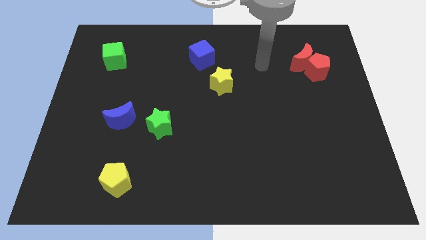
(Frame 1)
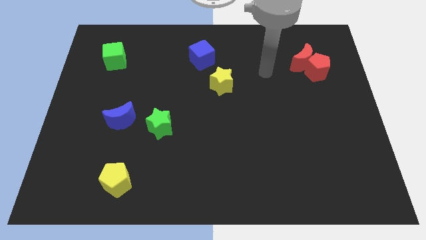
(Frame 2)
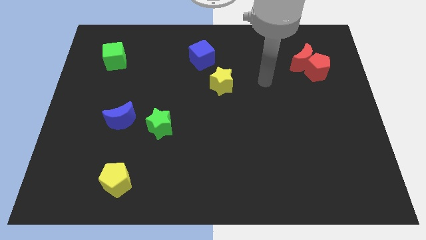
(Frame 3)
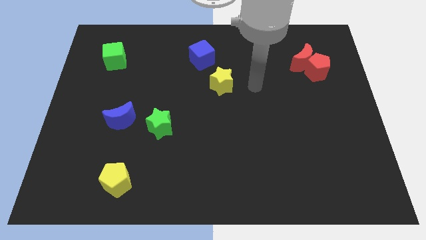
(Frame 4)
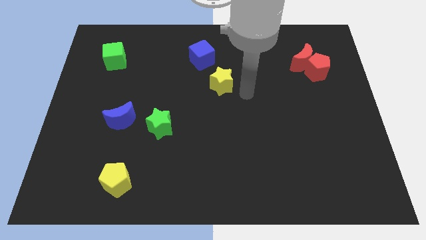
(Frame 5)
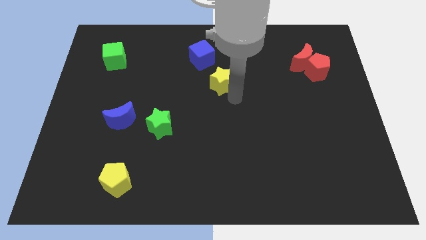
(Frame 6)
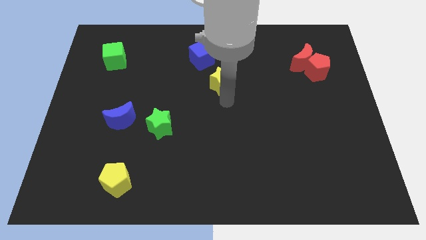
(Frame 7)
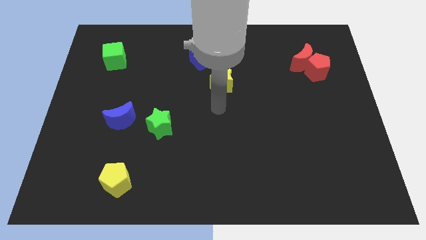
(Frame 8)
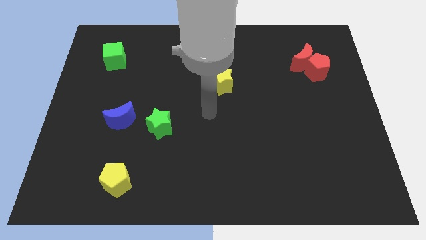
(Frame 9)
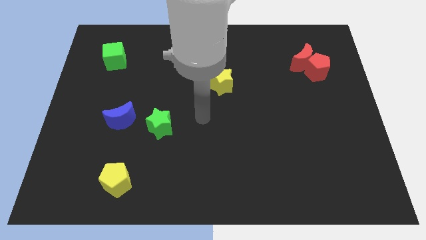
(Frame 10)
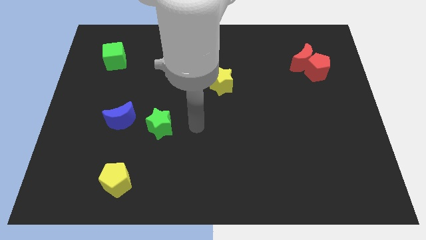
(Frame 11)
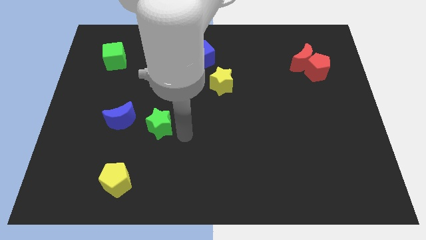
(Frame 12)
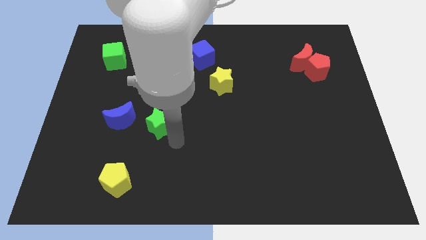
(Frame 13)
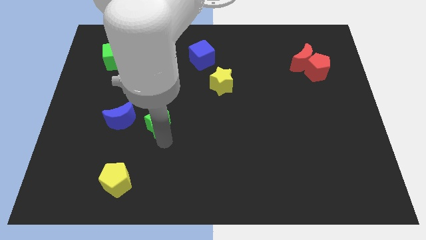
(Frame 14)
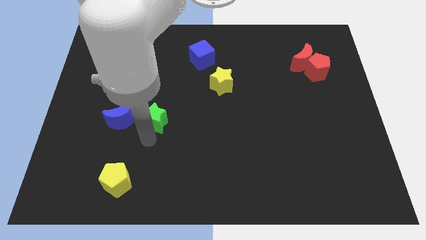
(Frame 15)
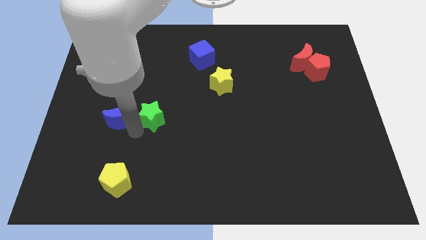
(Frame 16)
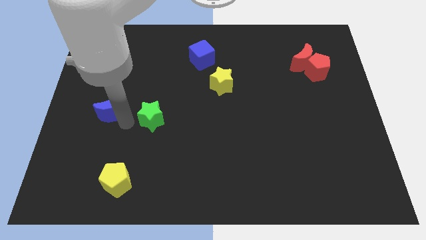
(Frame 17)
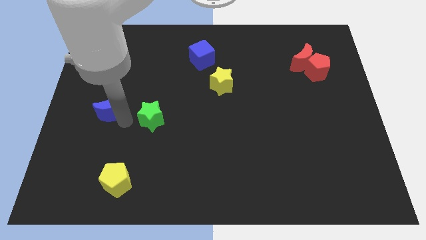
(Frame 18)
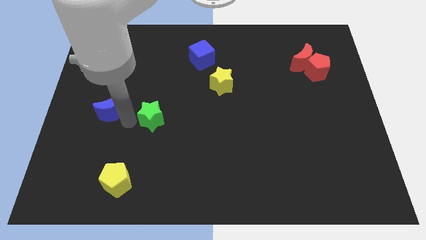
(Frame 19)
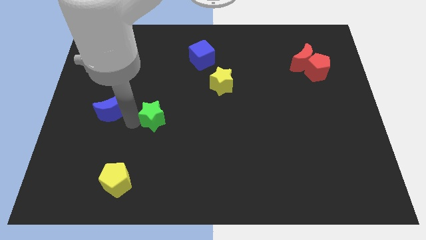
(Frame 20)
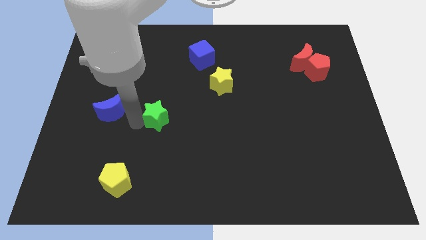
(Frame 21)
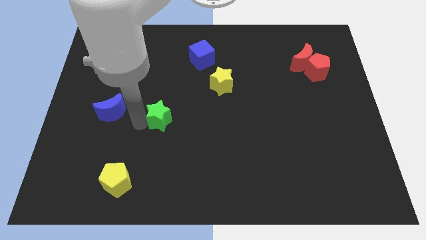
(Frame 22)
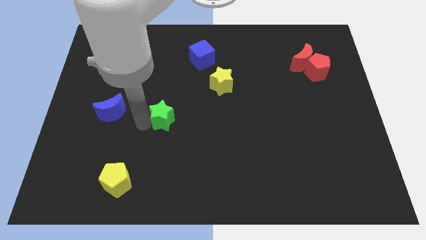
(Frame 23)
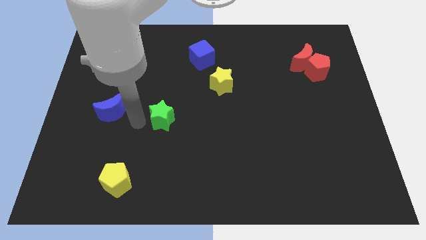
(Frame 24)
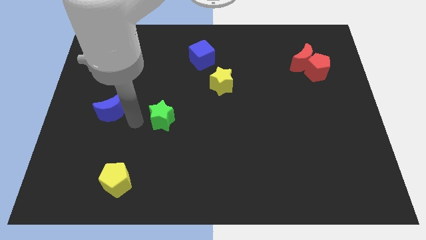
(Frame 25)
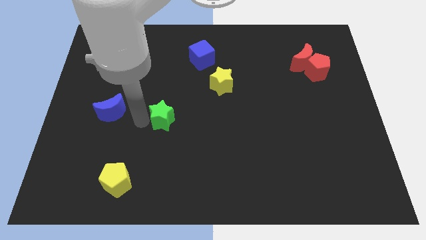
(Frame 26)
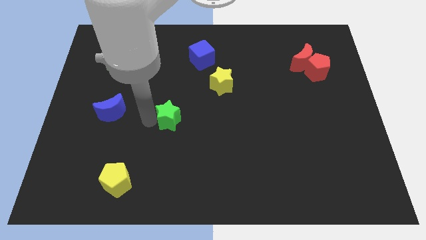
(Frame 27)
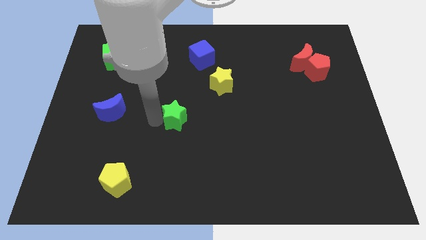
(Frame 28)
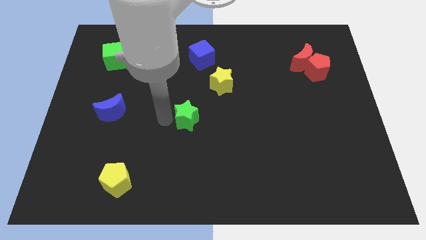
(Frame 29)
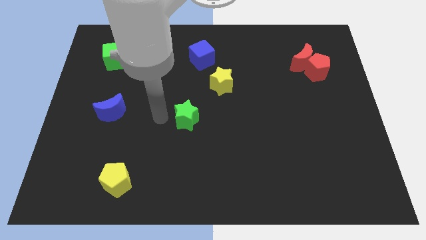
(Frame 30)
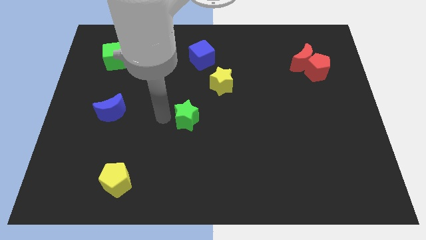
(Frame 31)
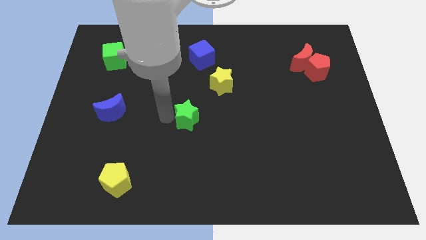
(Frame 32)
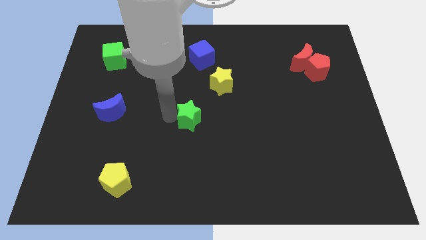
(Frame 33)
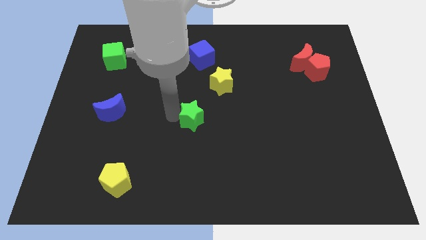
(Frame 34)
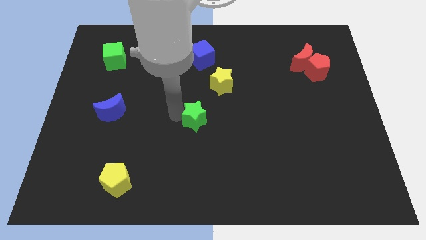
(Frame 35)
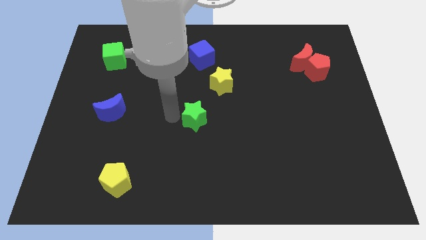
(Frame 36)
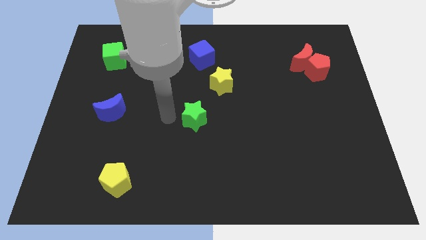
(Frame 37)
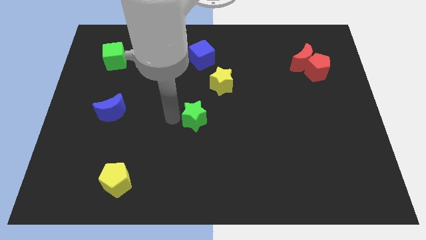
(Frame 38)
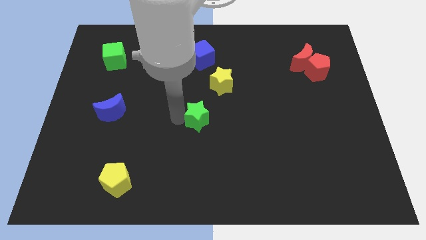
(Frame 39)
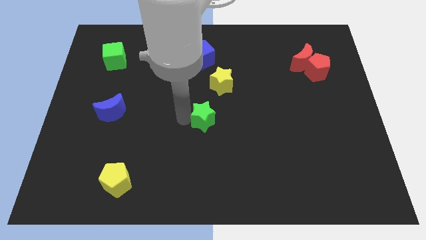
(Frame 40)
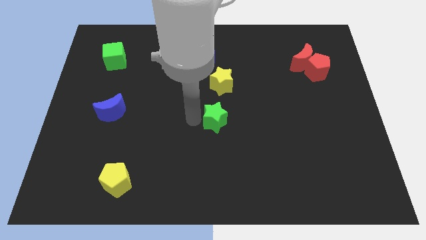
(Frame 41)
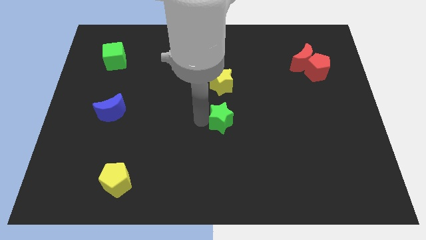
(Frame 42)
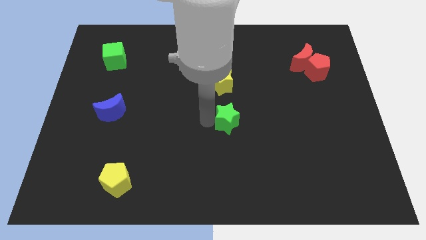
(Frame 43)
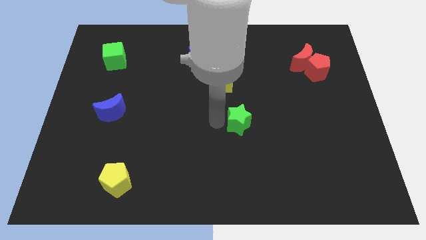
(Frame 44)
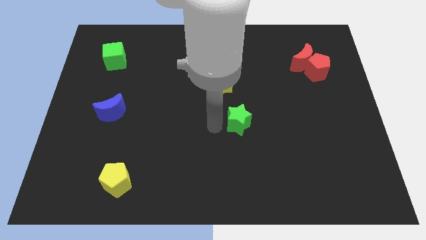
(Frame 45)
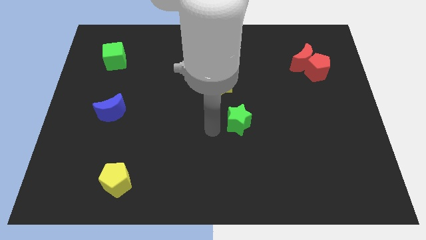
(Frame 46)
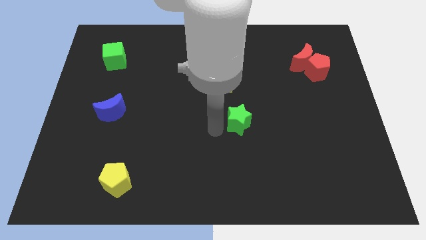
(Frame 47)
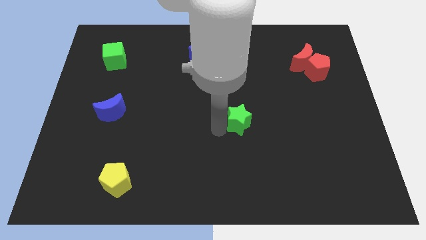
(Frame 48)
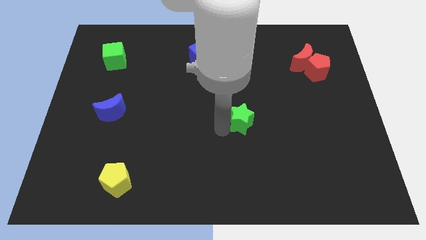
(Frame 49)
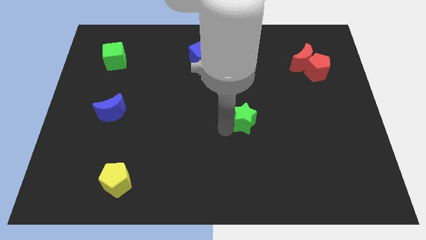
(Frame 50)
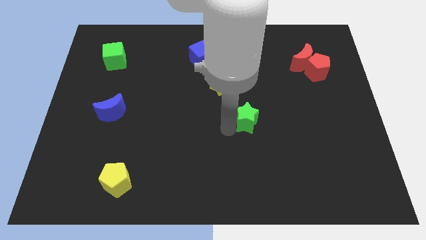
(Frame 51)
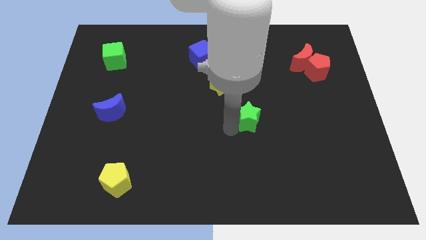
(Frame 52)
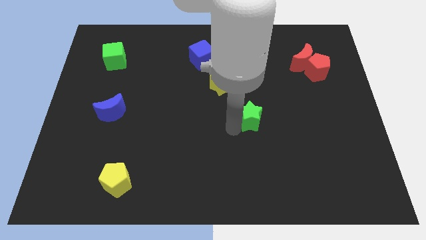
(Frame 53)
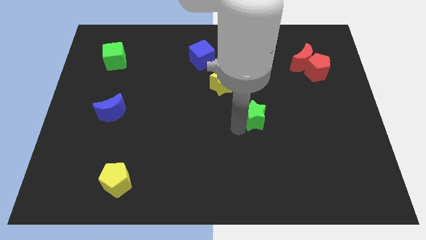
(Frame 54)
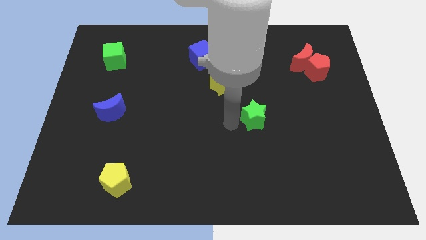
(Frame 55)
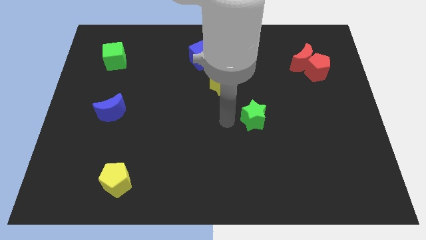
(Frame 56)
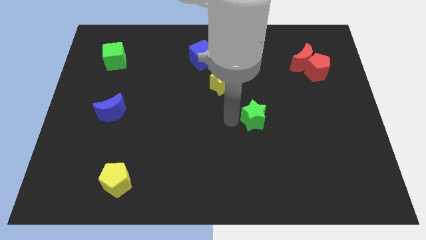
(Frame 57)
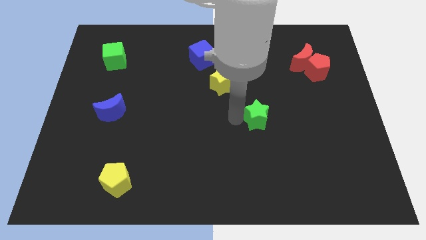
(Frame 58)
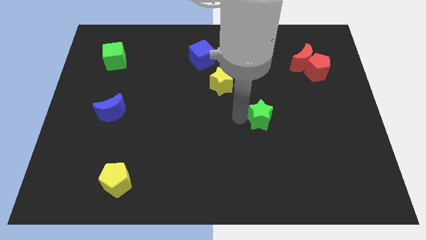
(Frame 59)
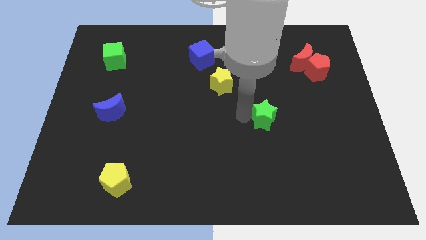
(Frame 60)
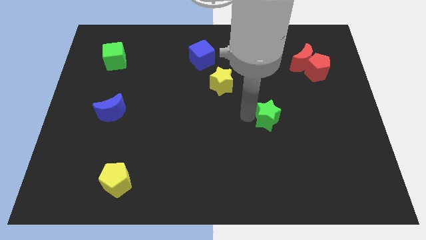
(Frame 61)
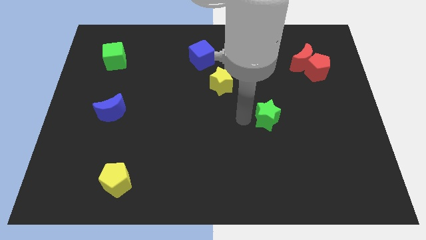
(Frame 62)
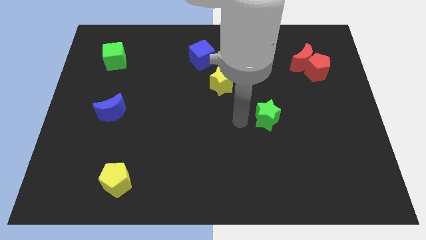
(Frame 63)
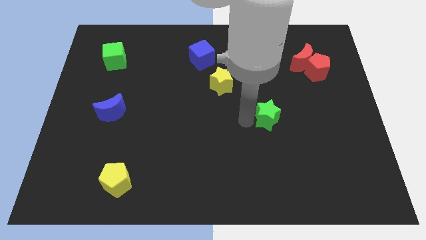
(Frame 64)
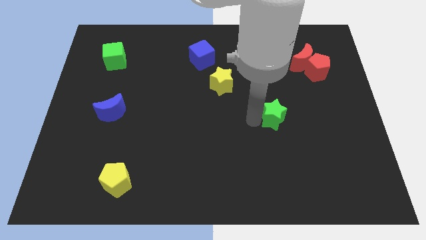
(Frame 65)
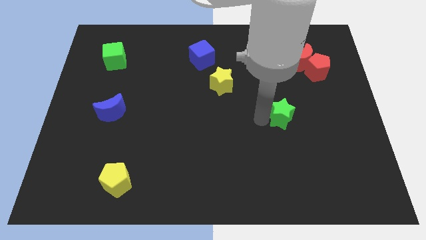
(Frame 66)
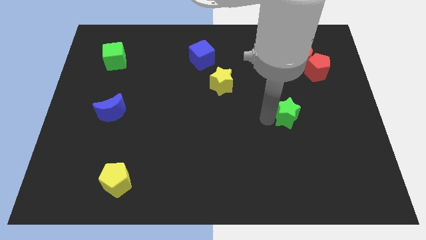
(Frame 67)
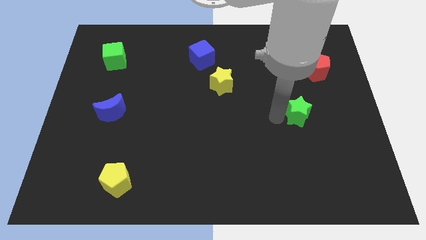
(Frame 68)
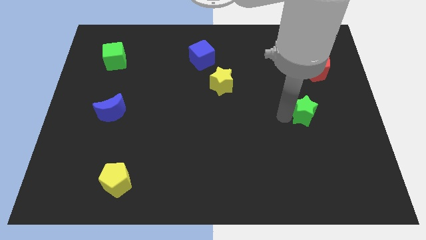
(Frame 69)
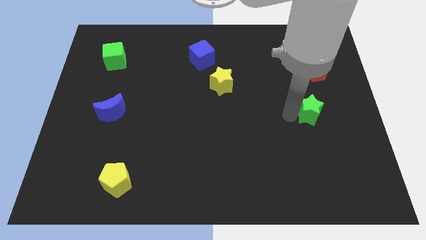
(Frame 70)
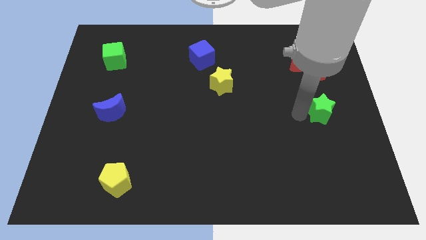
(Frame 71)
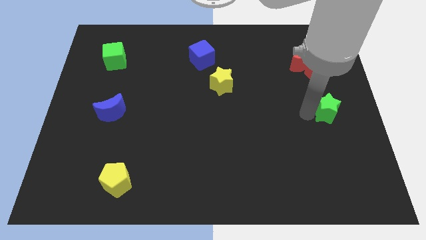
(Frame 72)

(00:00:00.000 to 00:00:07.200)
push the green star to the right side of the board
